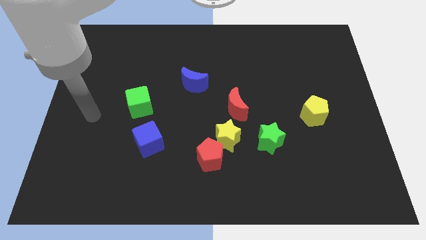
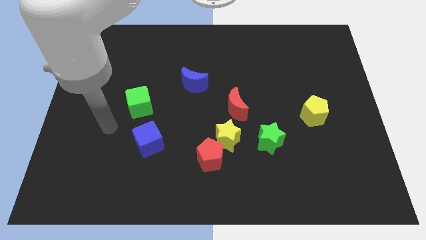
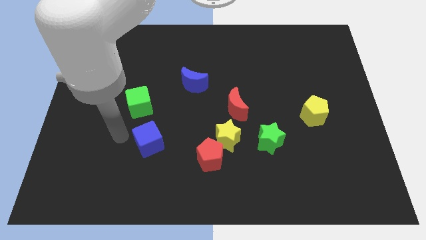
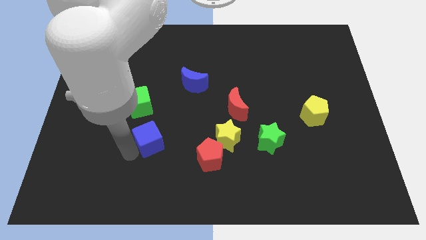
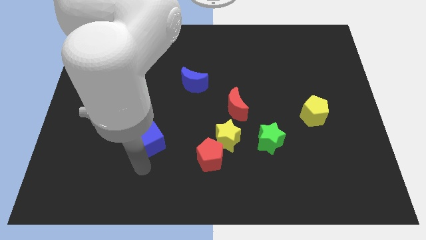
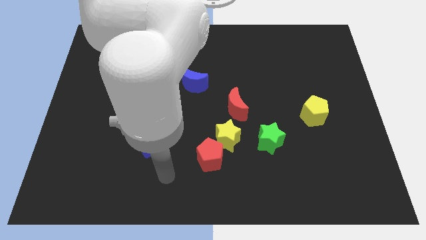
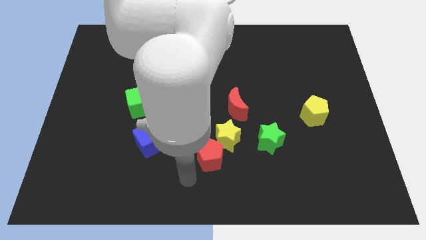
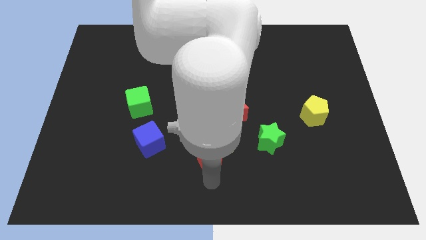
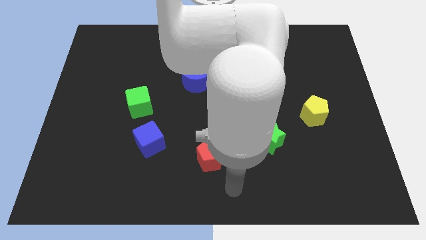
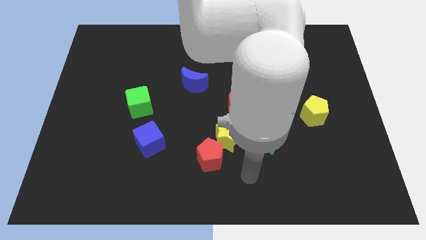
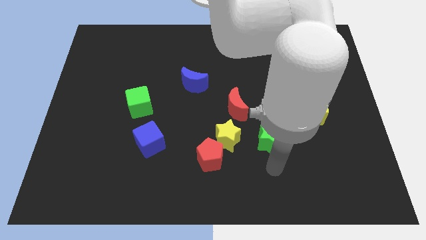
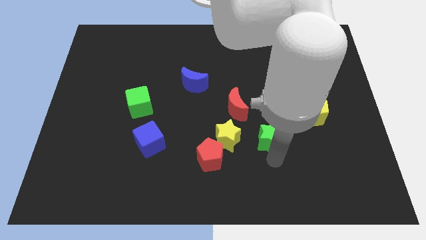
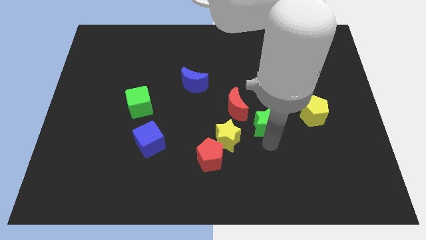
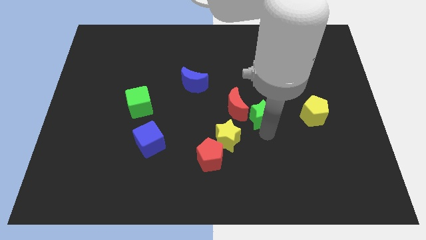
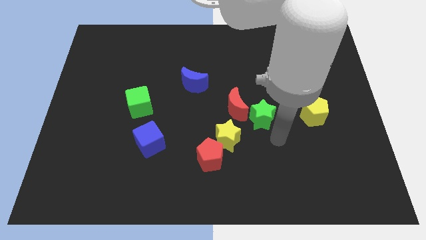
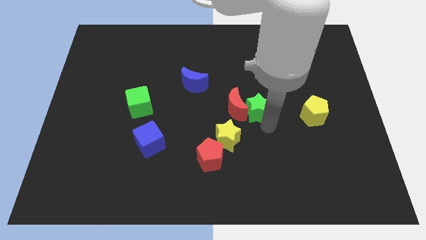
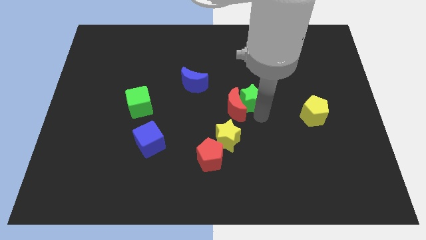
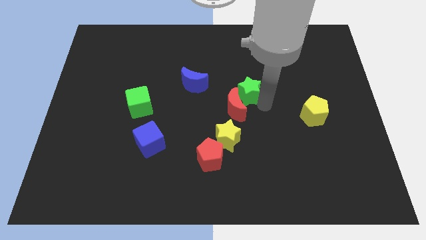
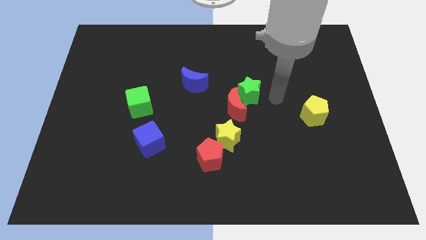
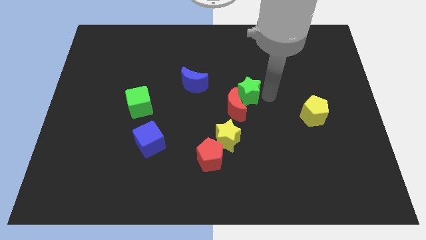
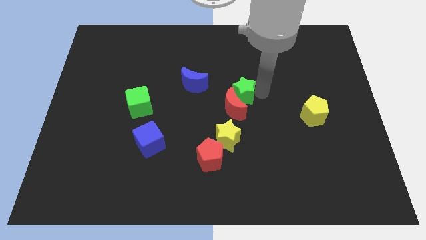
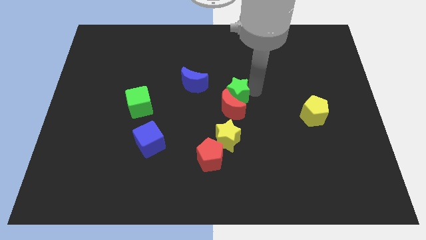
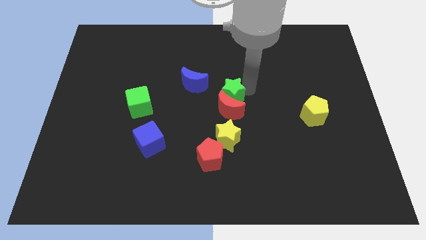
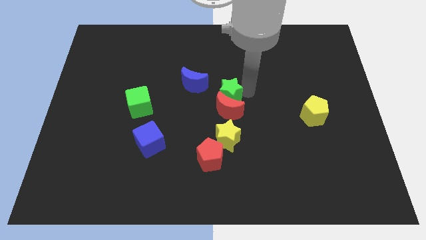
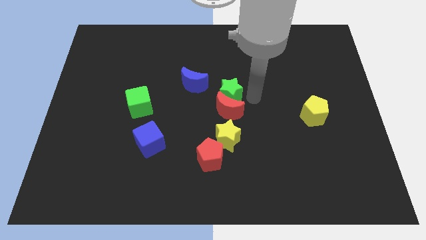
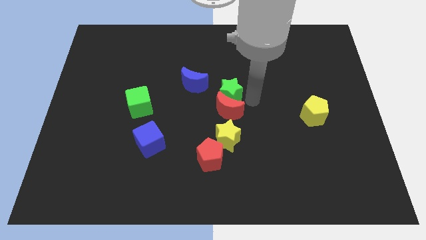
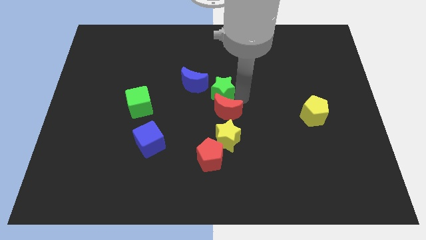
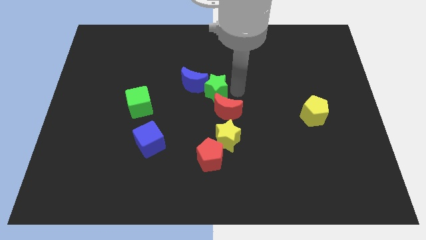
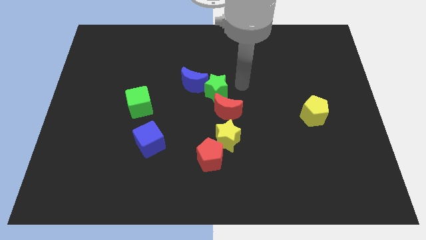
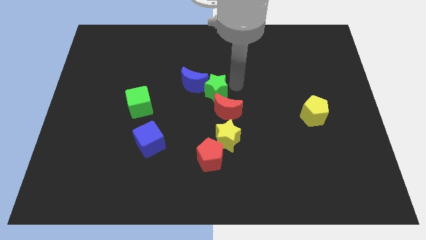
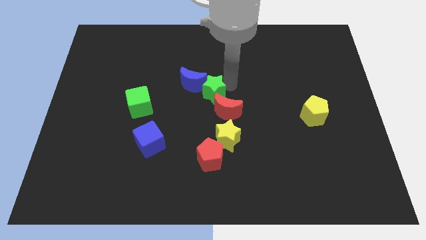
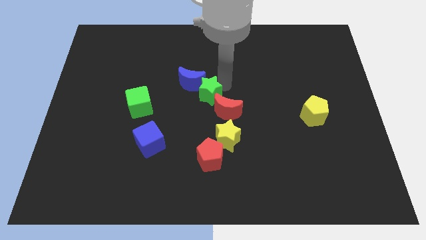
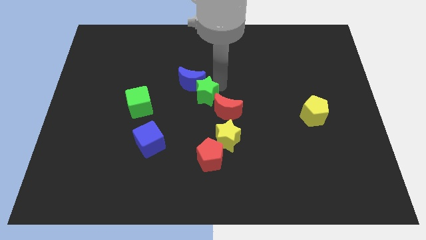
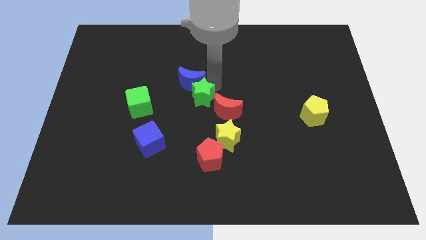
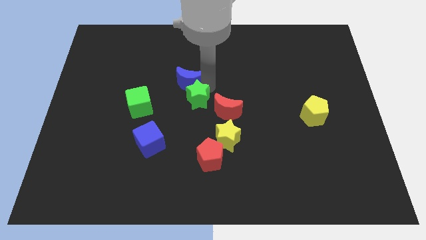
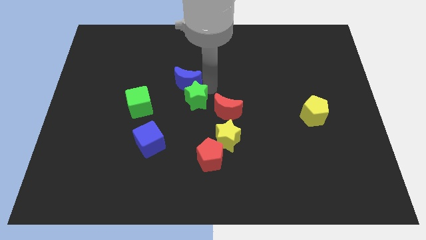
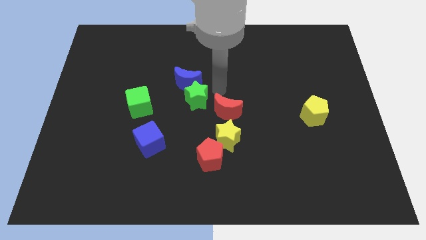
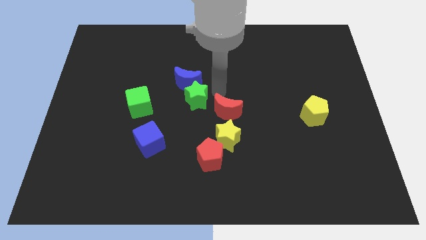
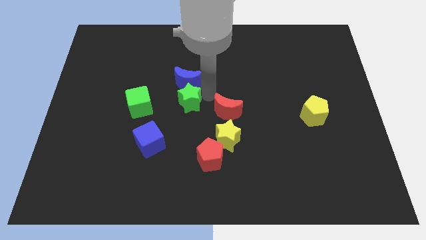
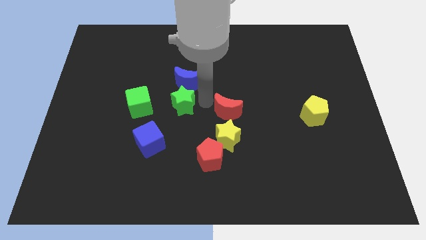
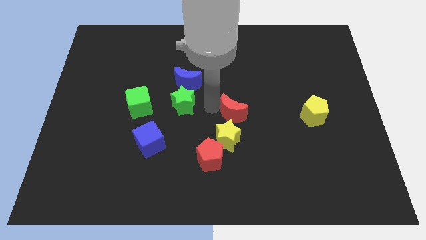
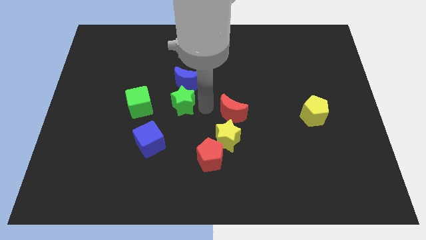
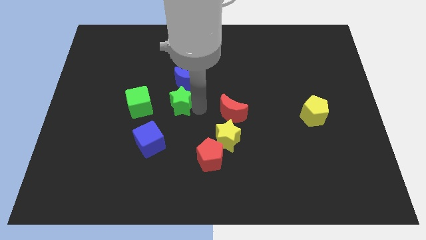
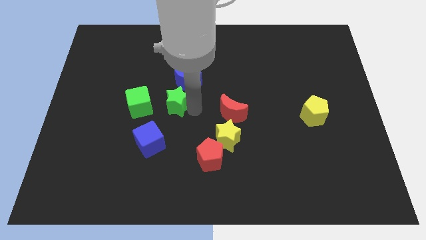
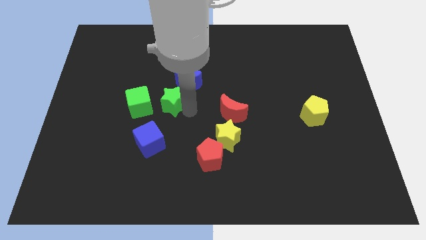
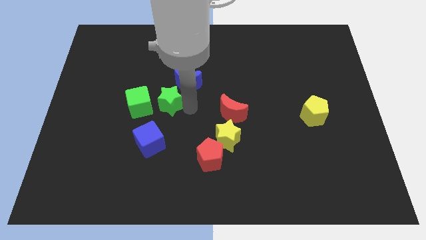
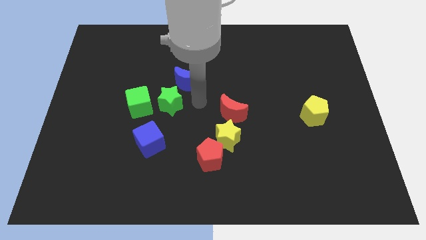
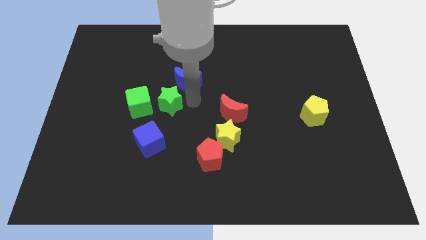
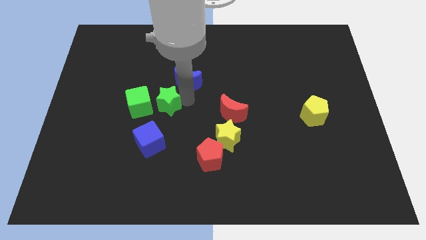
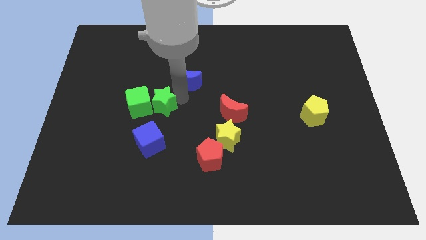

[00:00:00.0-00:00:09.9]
slide the green star next to the green cube

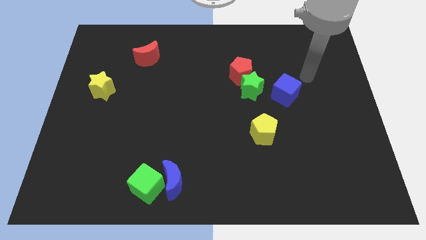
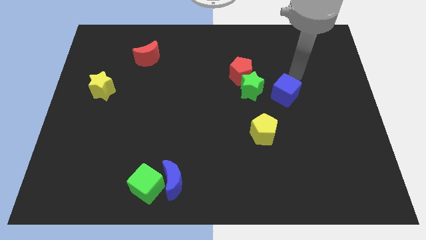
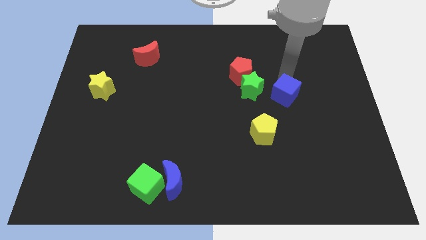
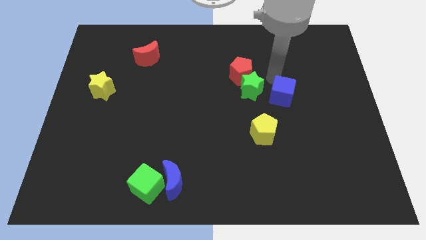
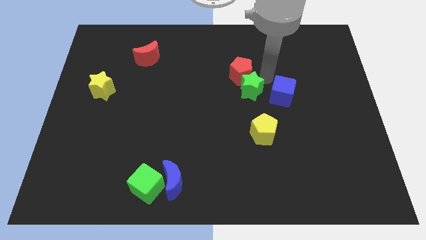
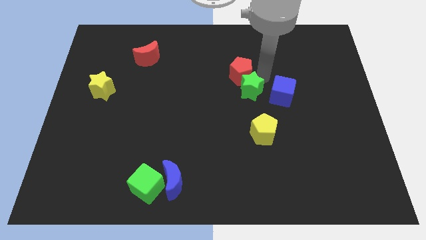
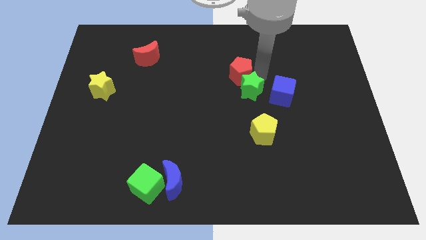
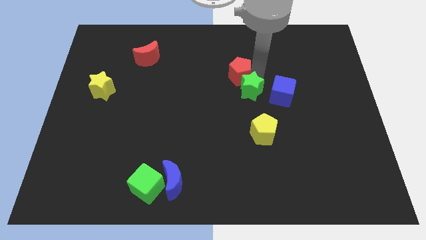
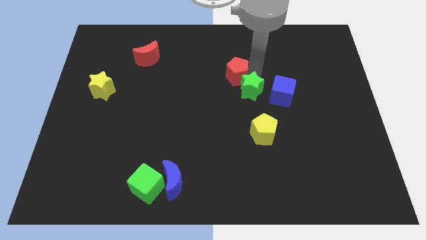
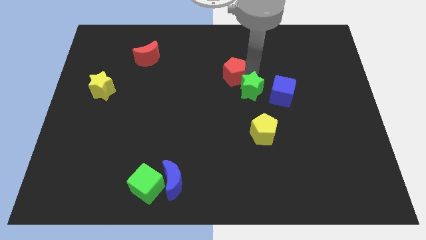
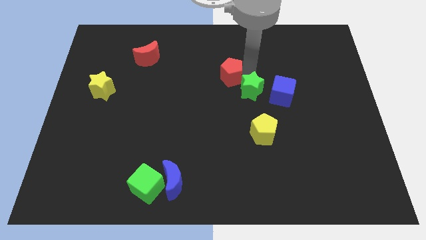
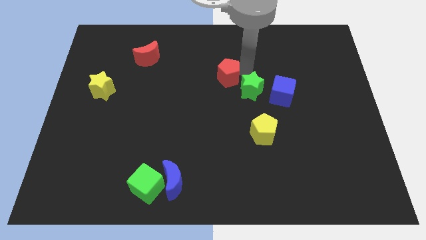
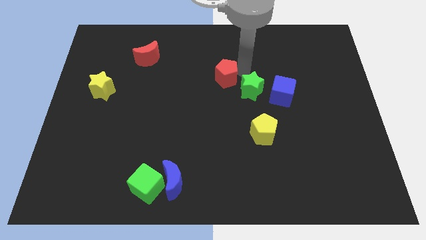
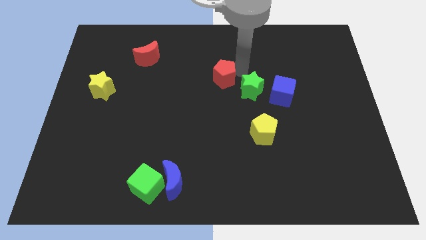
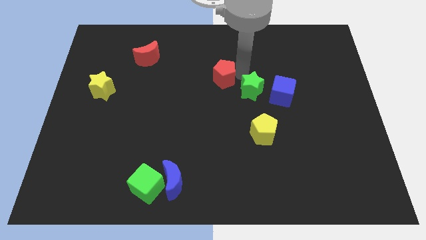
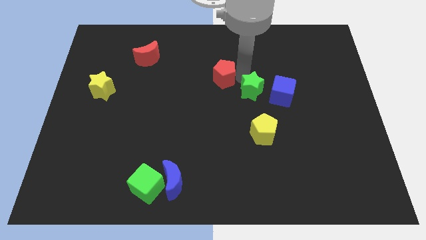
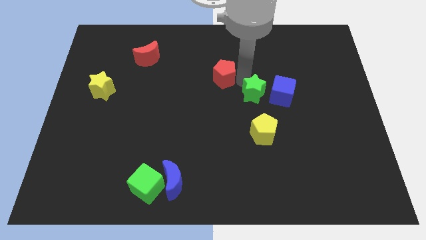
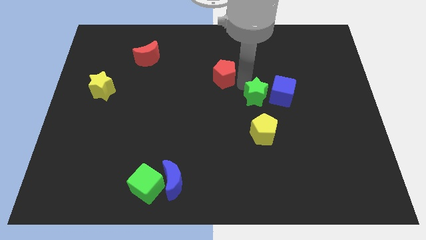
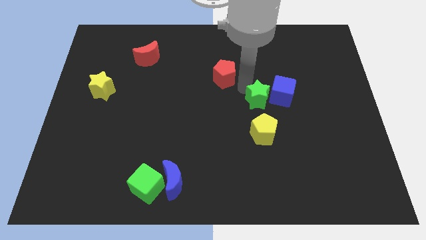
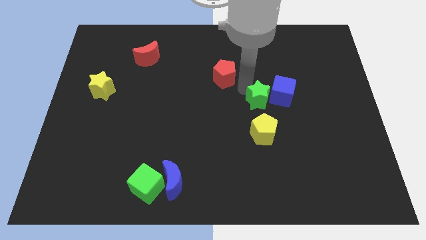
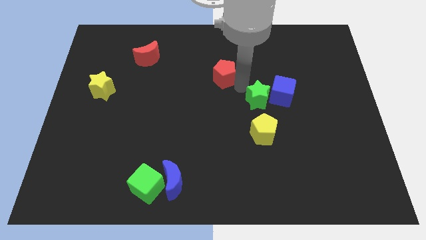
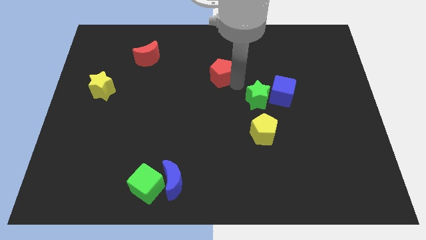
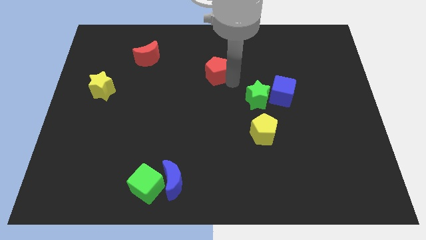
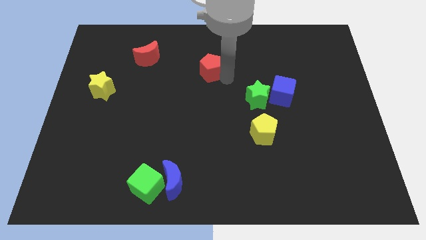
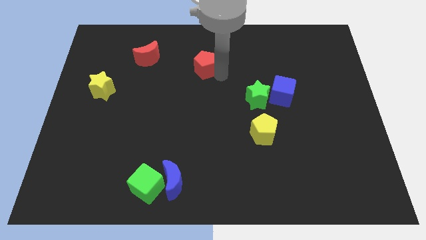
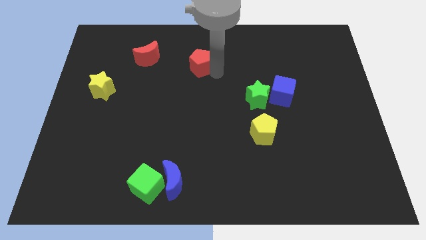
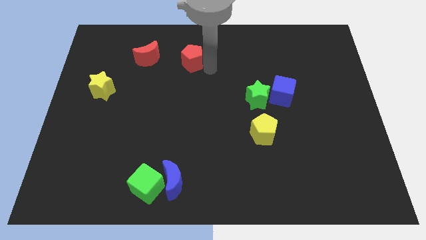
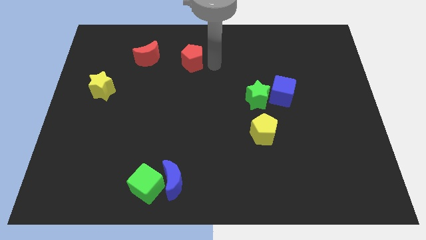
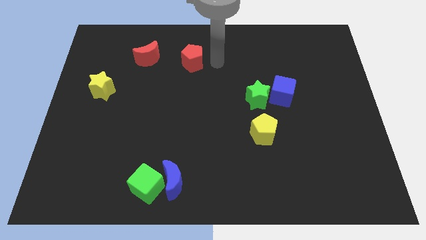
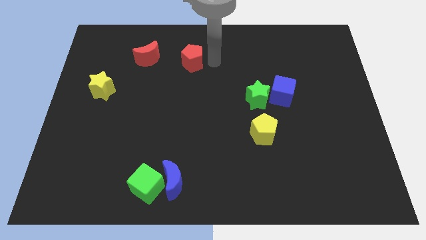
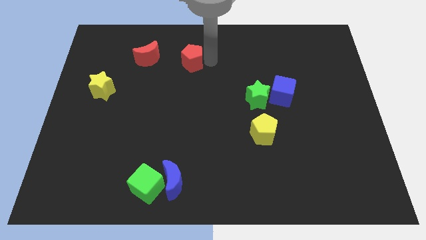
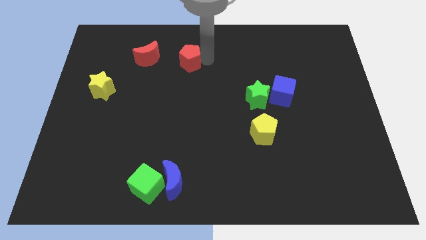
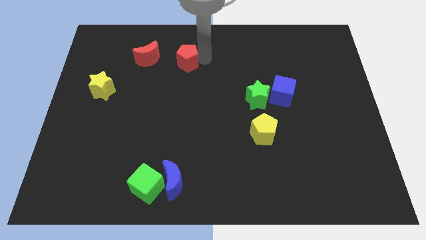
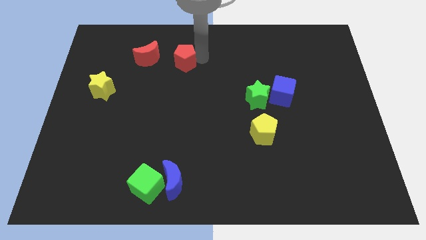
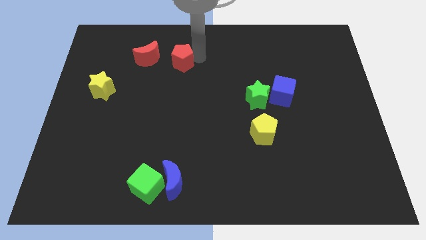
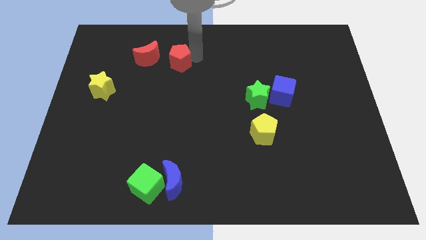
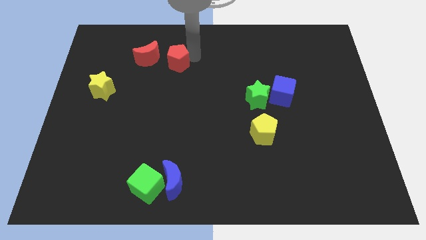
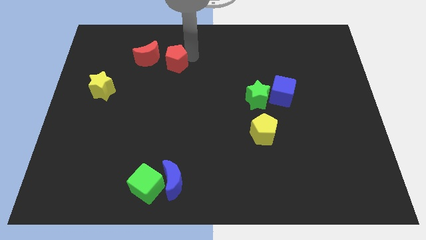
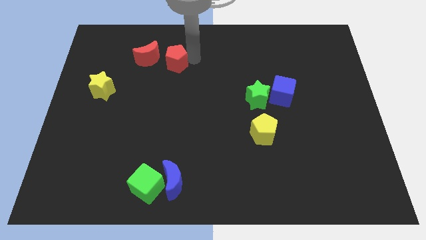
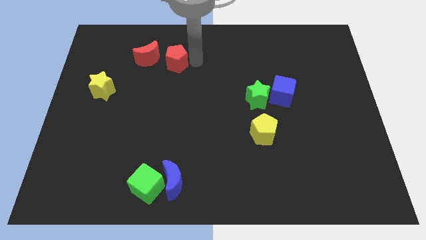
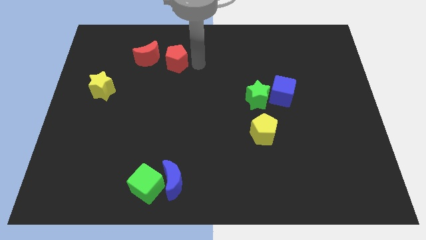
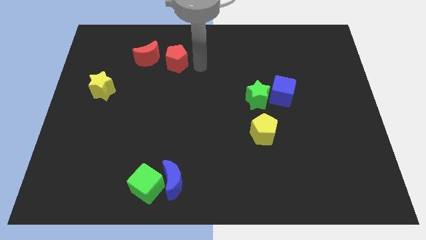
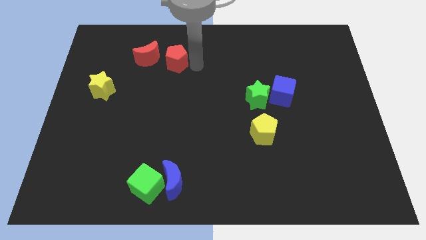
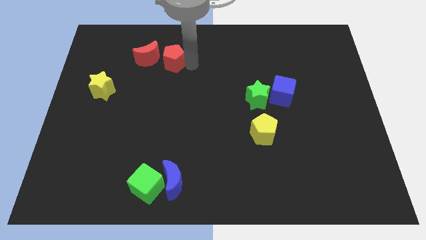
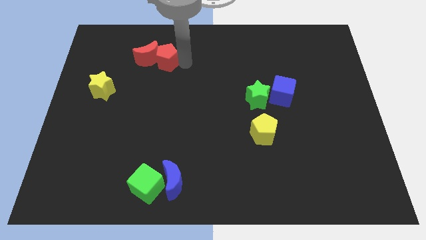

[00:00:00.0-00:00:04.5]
push the red pentagon to the red moon
